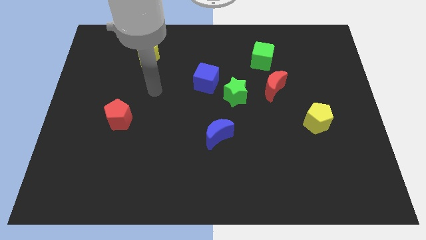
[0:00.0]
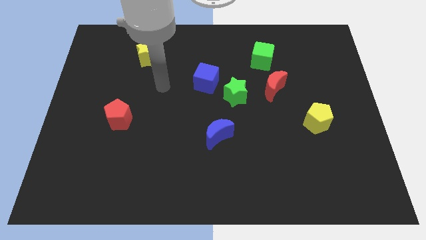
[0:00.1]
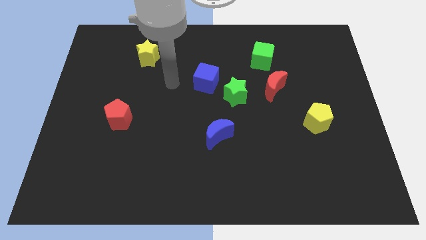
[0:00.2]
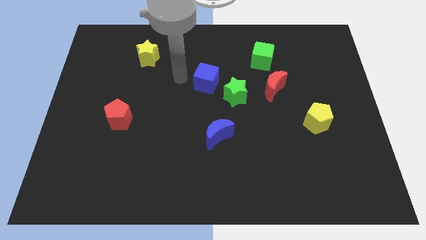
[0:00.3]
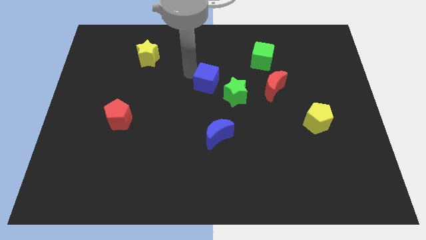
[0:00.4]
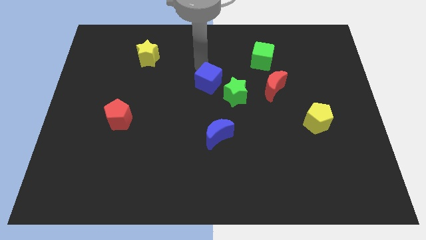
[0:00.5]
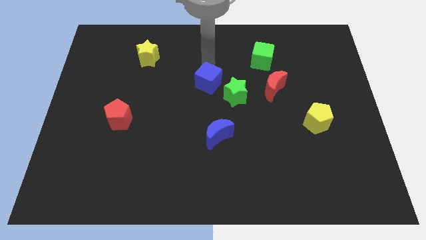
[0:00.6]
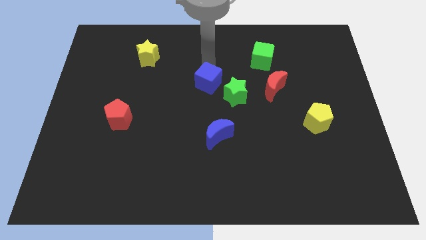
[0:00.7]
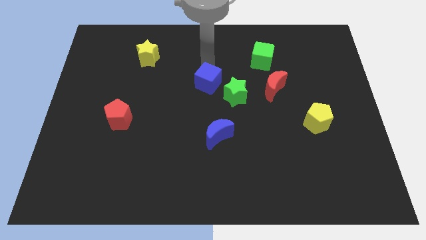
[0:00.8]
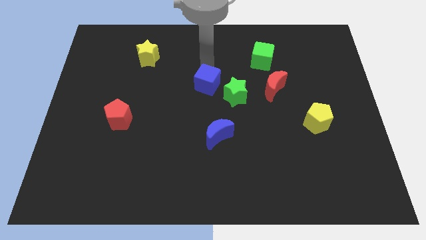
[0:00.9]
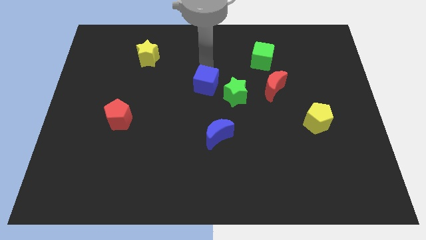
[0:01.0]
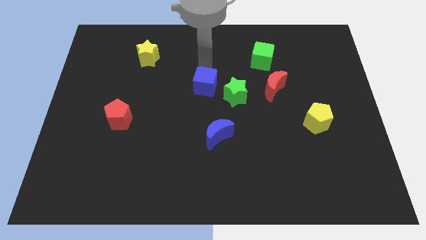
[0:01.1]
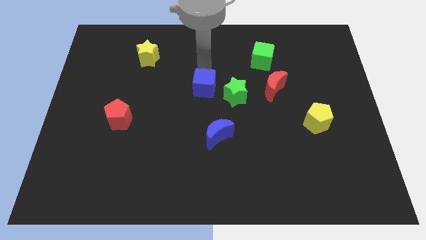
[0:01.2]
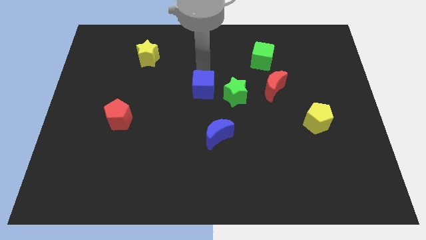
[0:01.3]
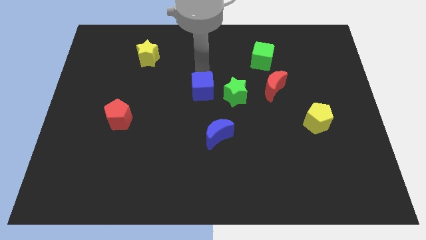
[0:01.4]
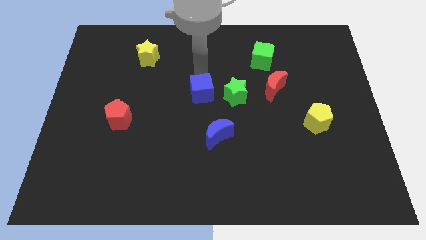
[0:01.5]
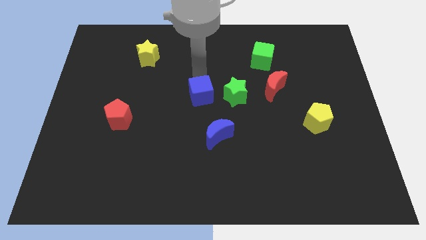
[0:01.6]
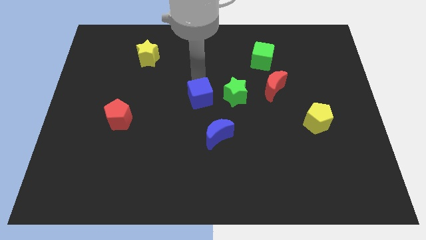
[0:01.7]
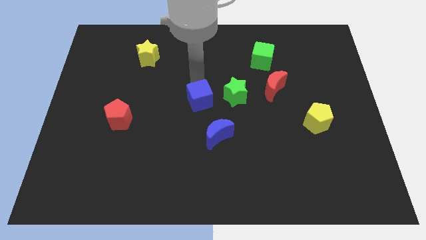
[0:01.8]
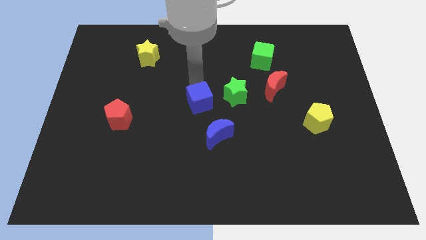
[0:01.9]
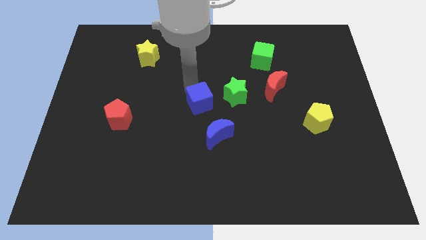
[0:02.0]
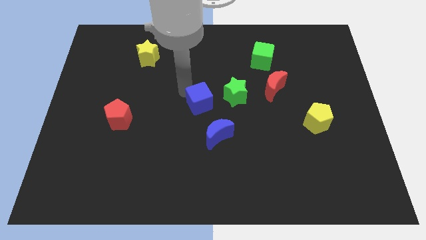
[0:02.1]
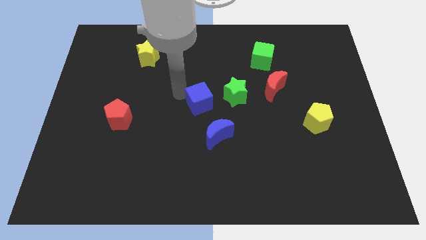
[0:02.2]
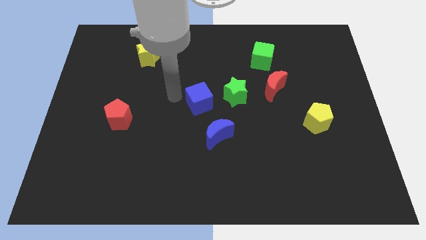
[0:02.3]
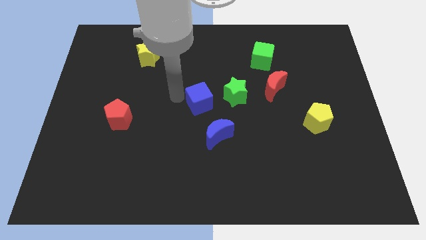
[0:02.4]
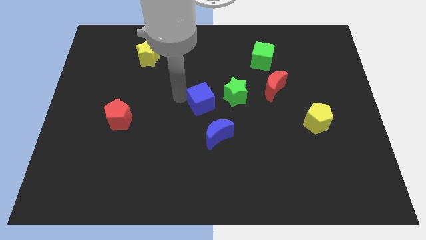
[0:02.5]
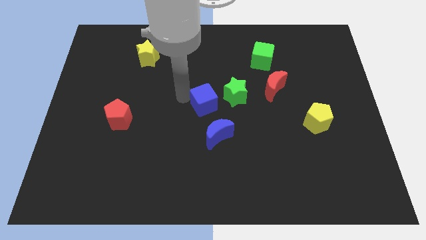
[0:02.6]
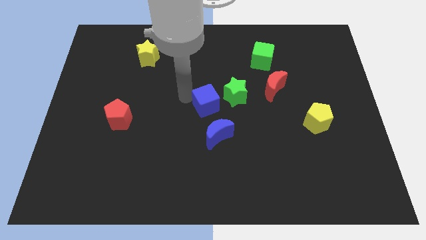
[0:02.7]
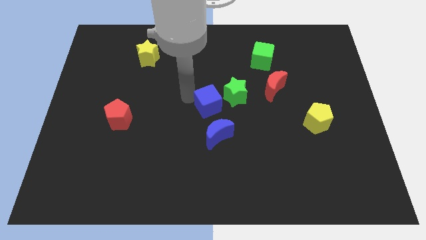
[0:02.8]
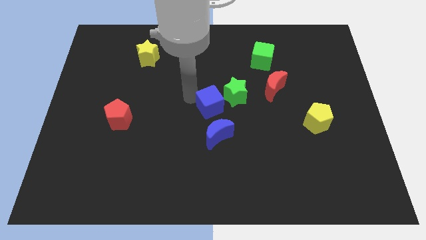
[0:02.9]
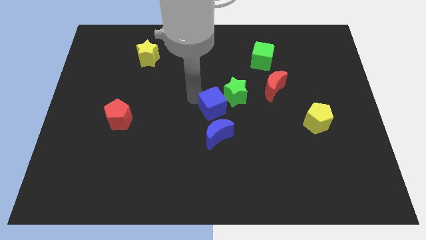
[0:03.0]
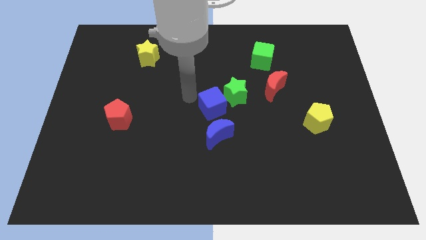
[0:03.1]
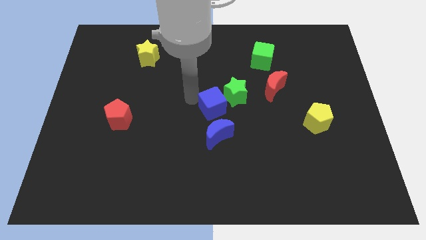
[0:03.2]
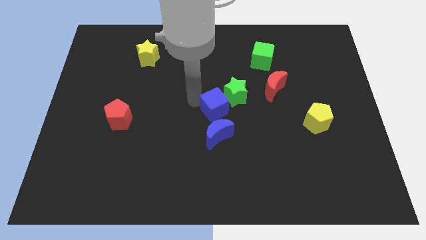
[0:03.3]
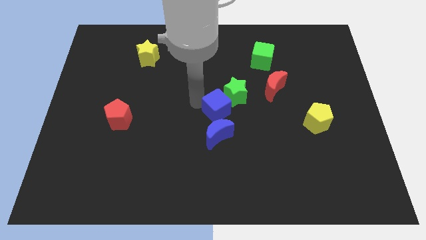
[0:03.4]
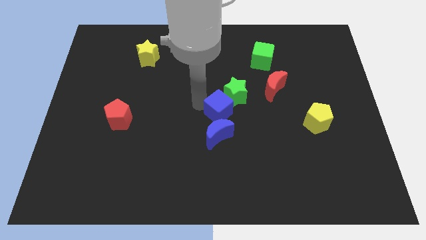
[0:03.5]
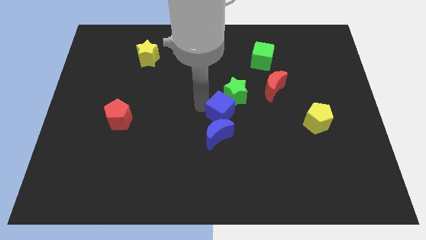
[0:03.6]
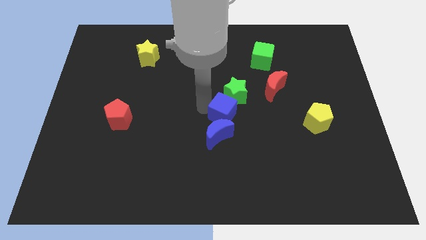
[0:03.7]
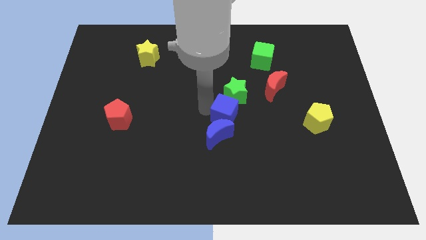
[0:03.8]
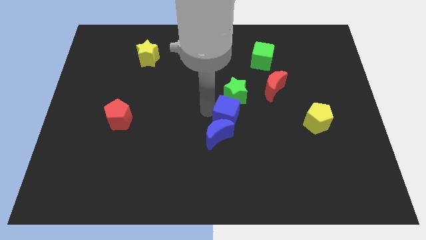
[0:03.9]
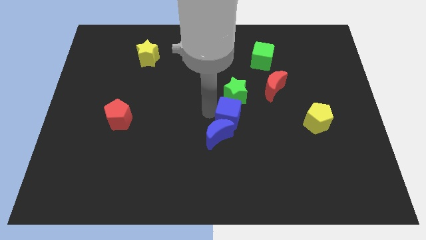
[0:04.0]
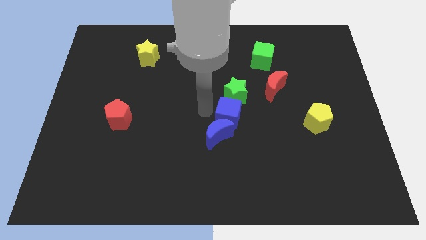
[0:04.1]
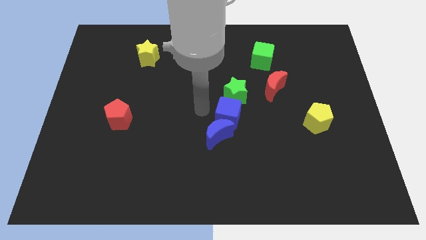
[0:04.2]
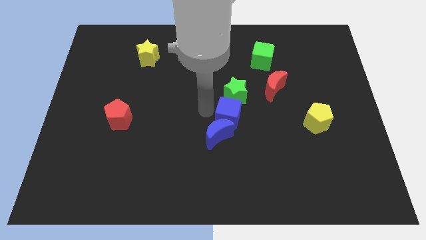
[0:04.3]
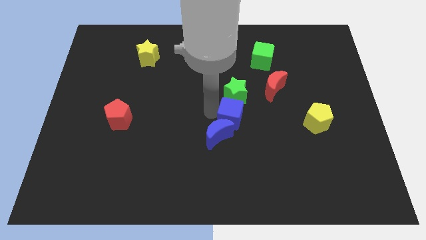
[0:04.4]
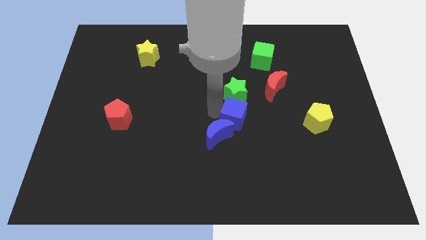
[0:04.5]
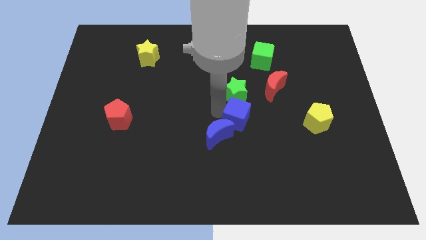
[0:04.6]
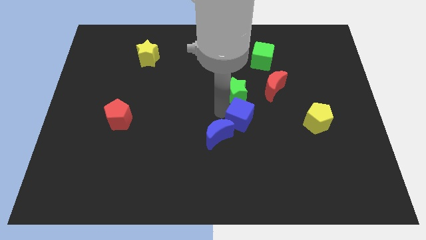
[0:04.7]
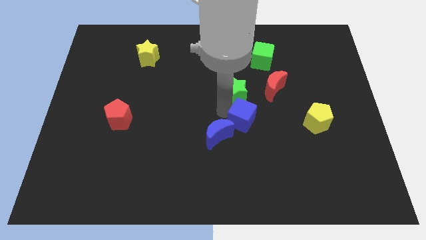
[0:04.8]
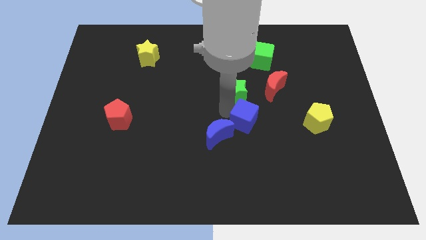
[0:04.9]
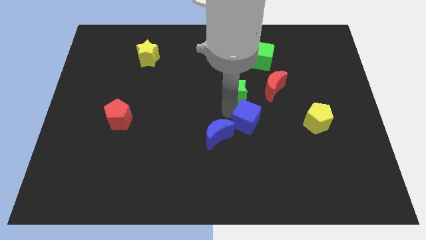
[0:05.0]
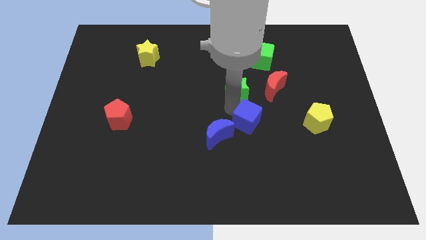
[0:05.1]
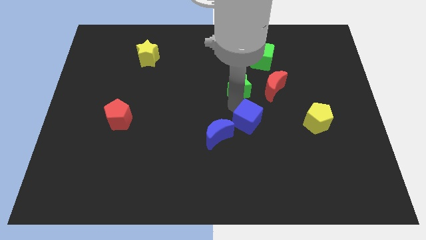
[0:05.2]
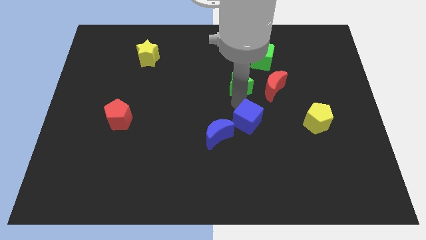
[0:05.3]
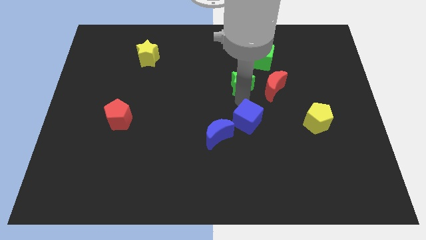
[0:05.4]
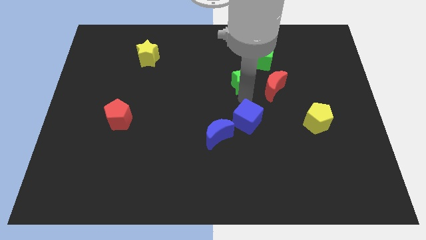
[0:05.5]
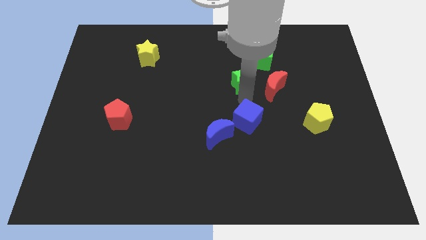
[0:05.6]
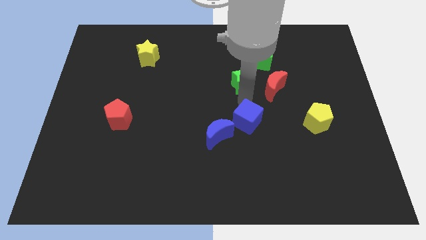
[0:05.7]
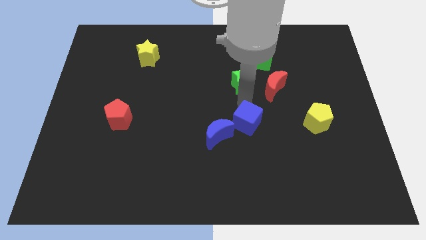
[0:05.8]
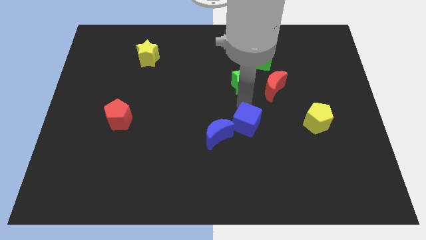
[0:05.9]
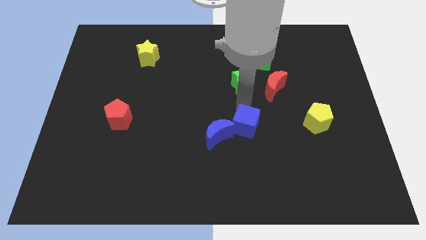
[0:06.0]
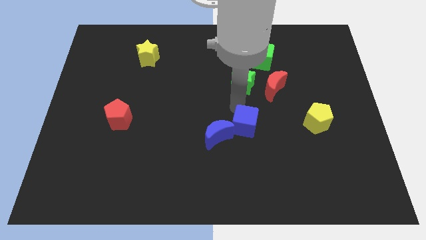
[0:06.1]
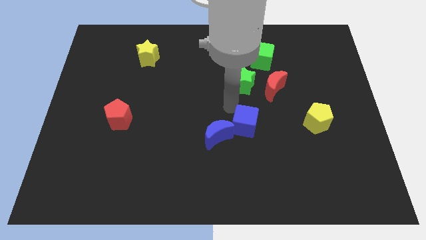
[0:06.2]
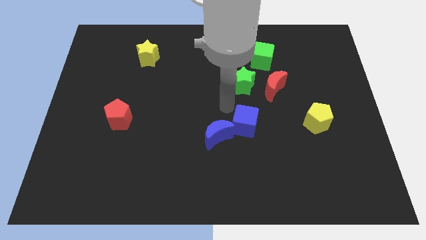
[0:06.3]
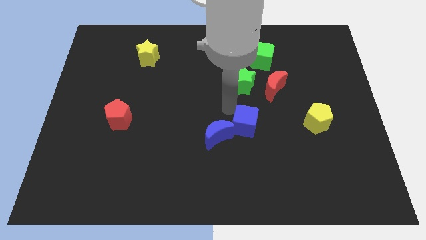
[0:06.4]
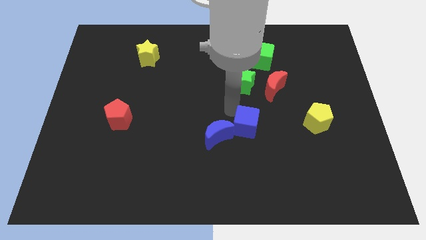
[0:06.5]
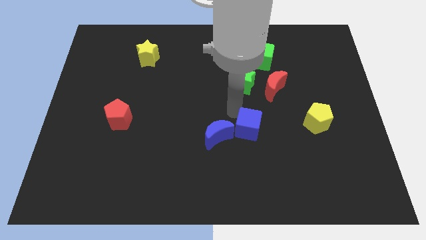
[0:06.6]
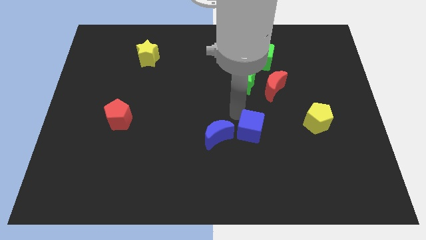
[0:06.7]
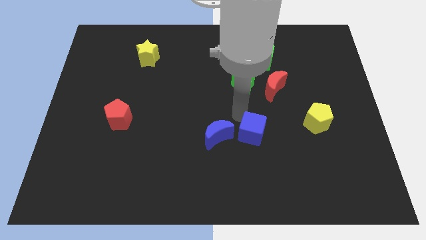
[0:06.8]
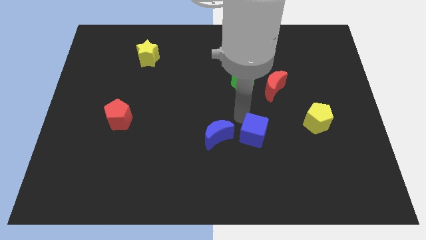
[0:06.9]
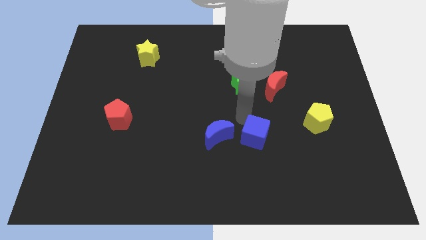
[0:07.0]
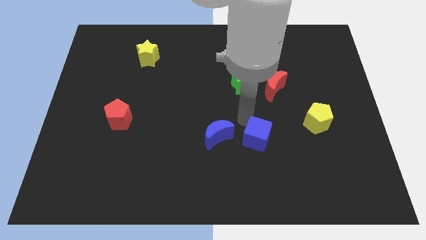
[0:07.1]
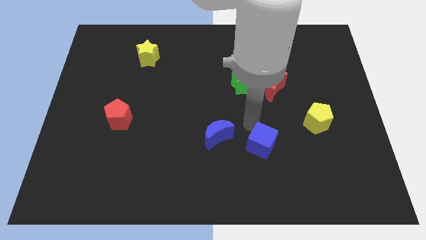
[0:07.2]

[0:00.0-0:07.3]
push the blue cube down and then to the right

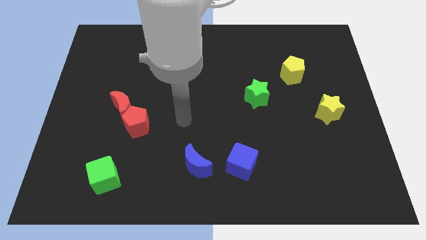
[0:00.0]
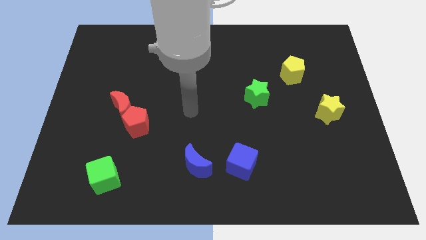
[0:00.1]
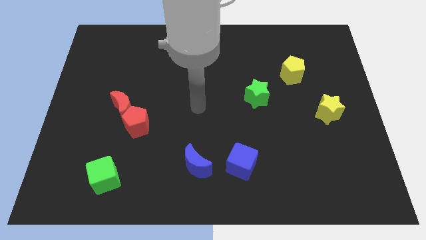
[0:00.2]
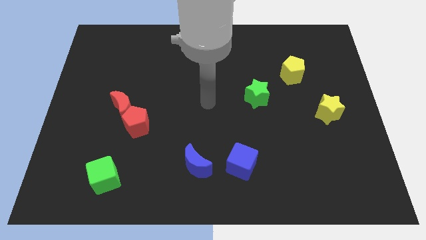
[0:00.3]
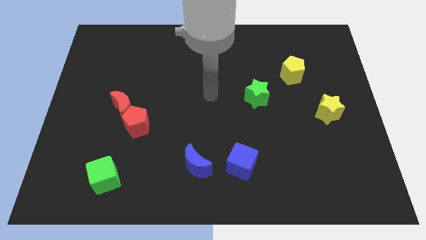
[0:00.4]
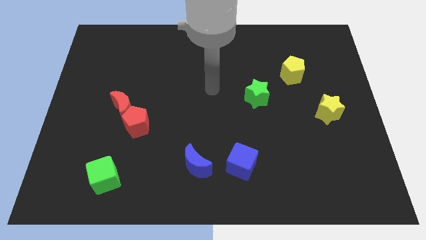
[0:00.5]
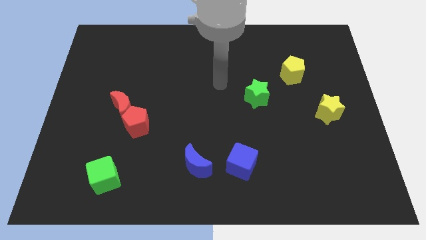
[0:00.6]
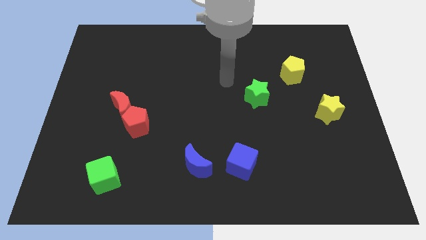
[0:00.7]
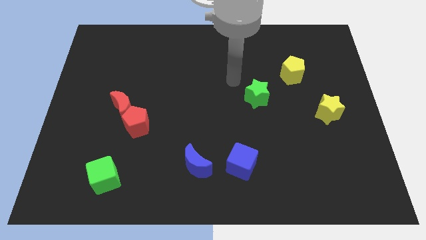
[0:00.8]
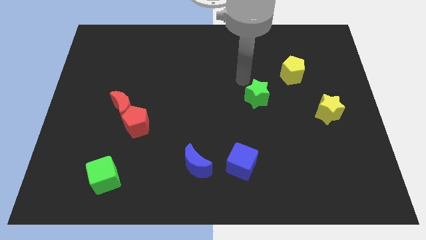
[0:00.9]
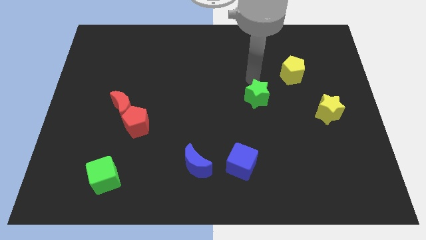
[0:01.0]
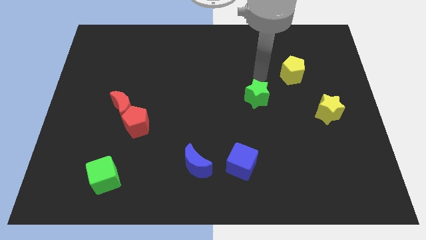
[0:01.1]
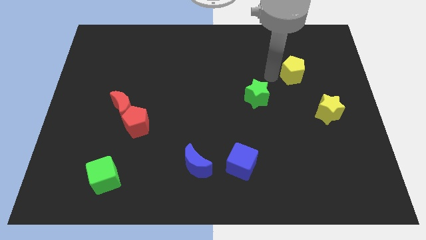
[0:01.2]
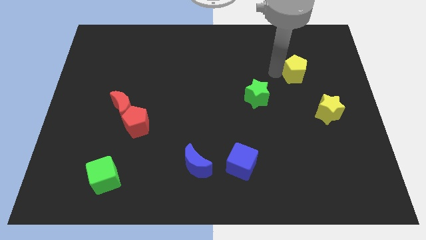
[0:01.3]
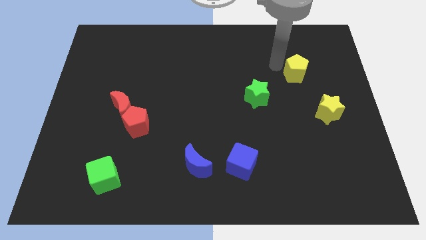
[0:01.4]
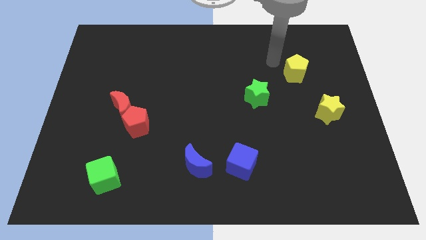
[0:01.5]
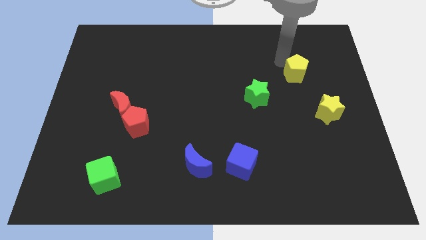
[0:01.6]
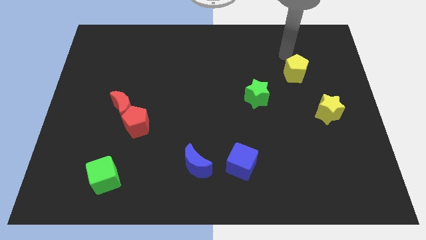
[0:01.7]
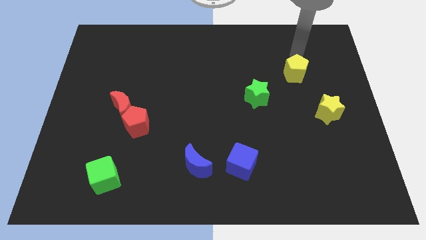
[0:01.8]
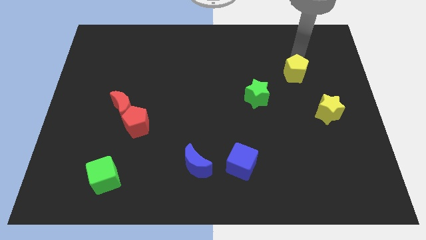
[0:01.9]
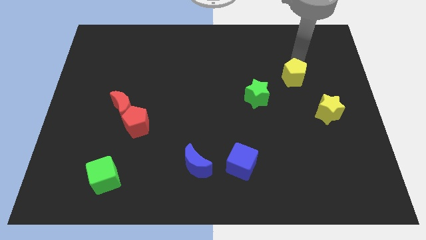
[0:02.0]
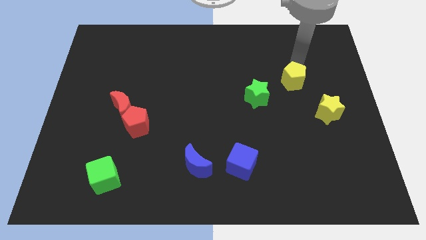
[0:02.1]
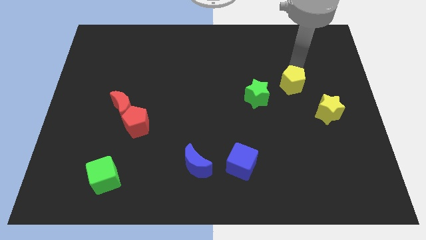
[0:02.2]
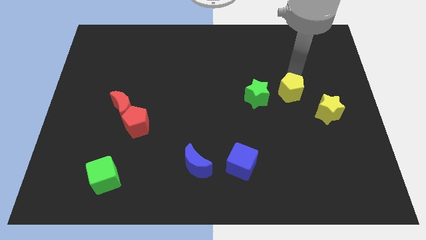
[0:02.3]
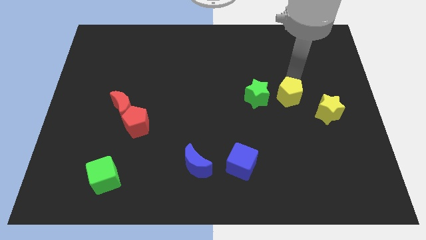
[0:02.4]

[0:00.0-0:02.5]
move the yellow pentagon down somewhat
